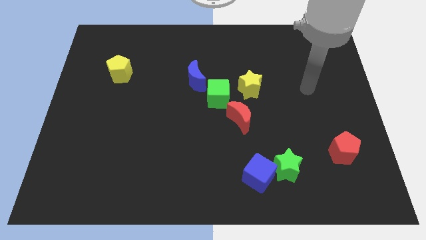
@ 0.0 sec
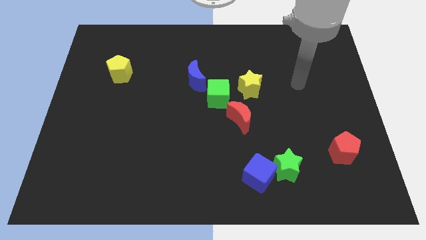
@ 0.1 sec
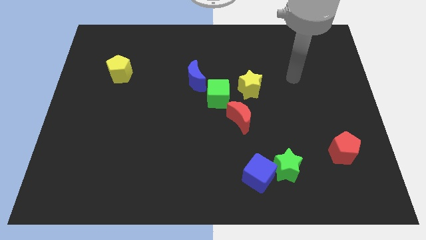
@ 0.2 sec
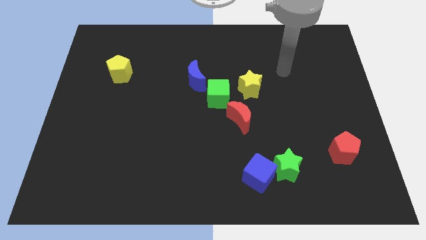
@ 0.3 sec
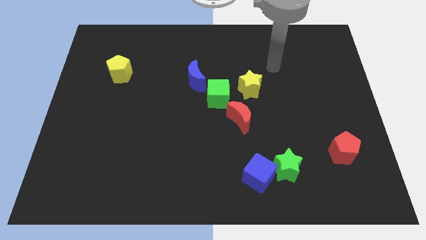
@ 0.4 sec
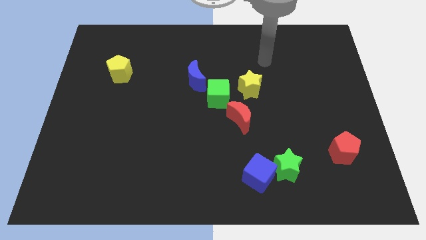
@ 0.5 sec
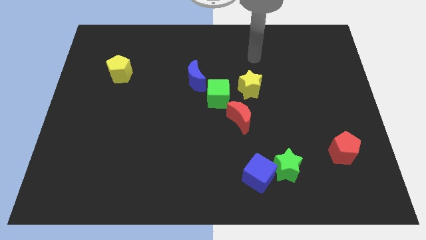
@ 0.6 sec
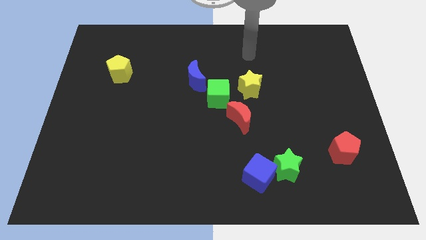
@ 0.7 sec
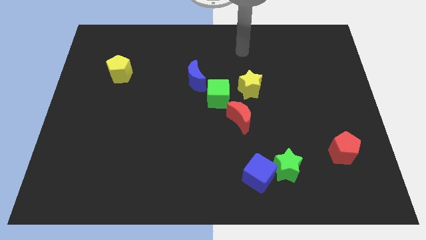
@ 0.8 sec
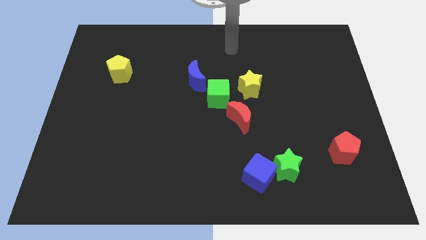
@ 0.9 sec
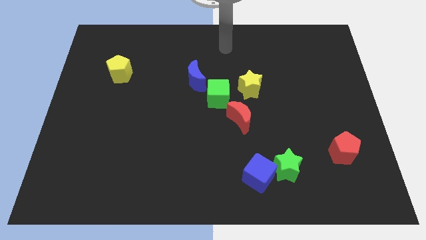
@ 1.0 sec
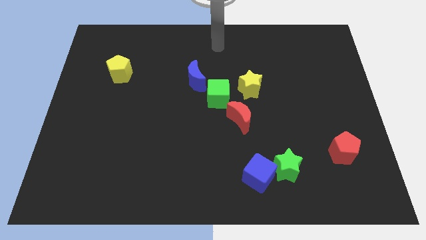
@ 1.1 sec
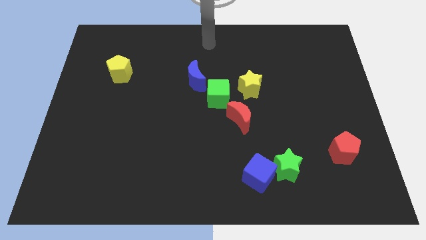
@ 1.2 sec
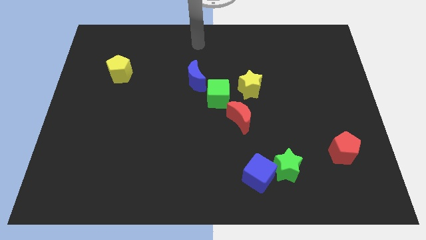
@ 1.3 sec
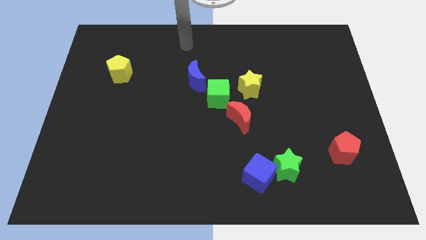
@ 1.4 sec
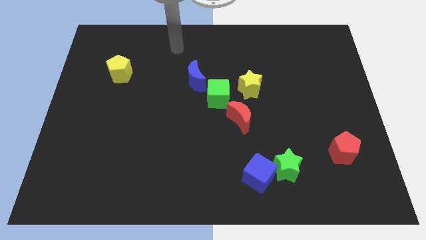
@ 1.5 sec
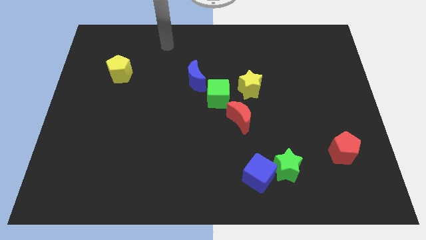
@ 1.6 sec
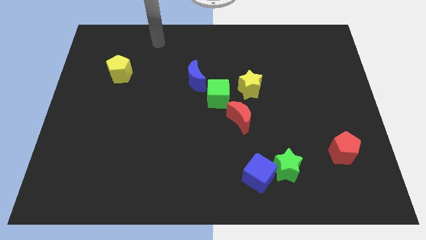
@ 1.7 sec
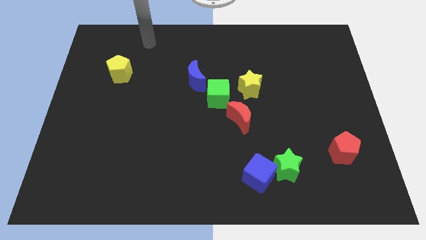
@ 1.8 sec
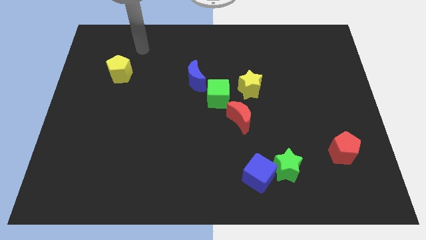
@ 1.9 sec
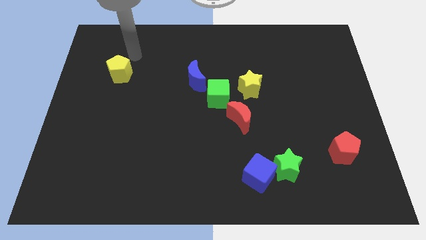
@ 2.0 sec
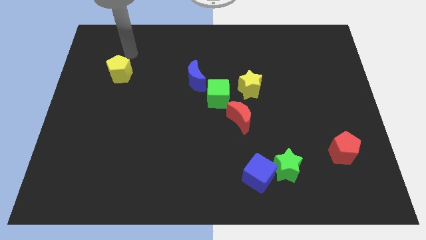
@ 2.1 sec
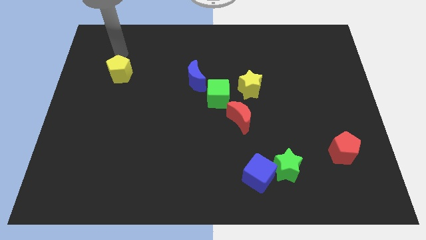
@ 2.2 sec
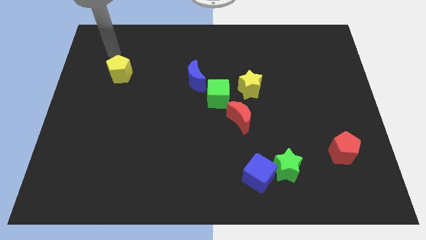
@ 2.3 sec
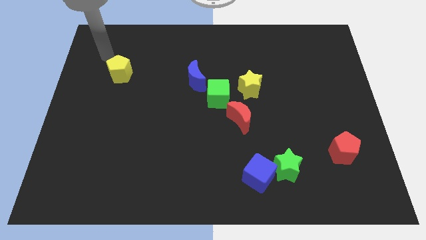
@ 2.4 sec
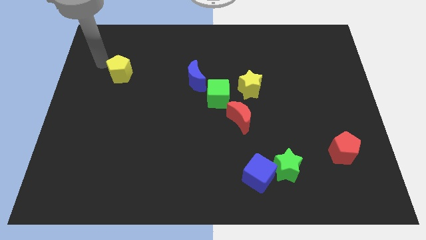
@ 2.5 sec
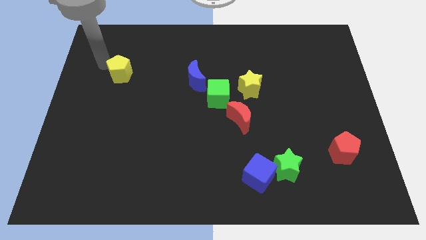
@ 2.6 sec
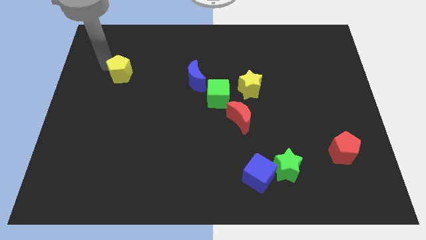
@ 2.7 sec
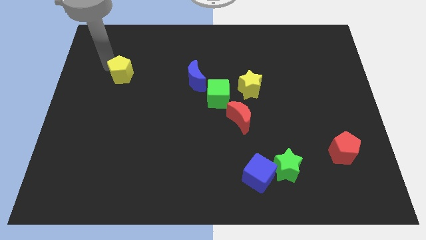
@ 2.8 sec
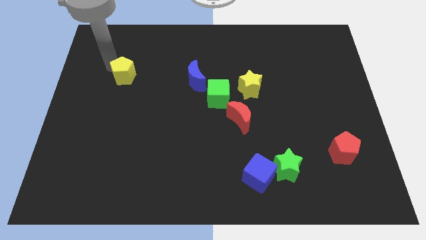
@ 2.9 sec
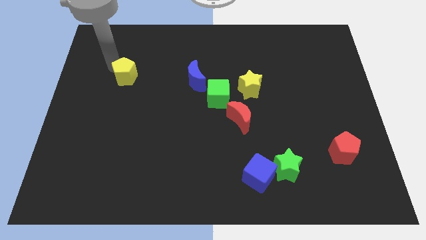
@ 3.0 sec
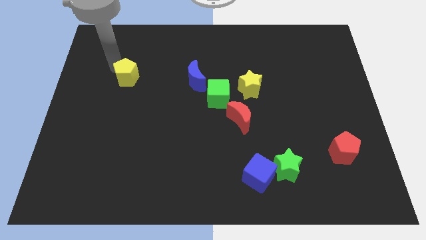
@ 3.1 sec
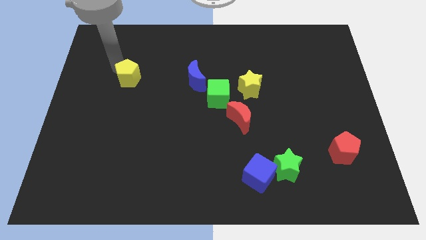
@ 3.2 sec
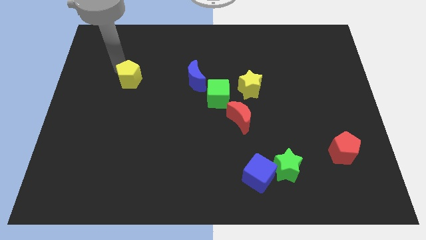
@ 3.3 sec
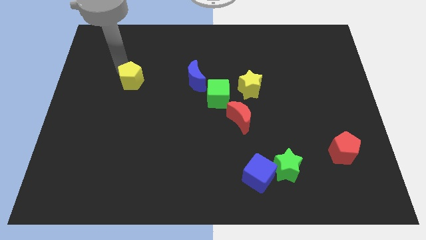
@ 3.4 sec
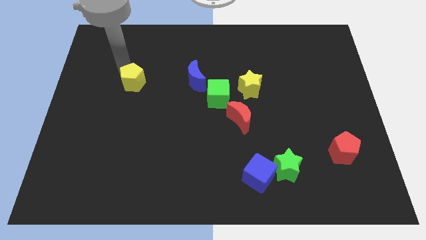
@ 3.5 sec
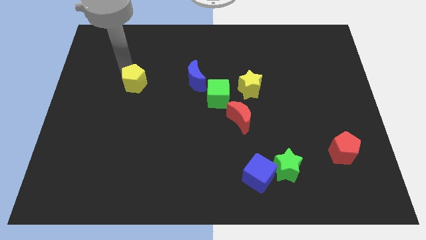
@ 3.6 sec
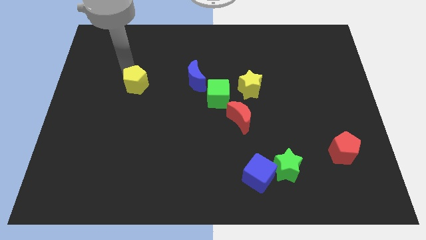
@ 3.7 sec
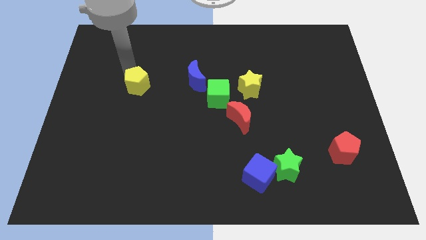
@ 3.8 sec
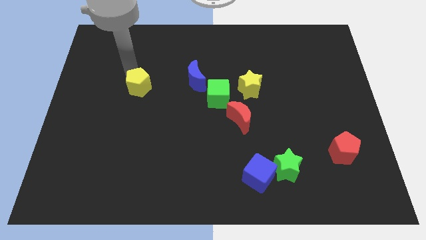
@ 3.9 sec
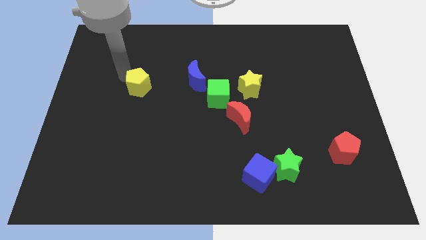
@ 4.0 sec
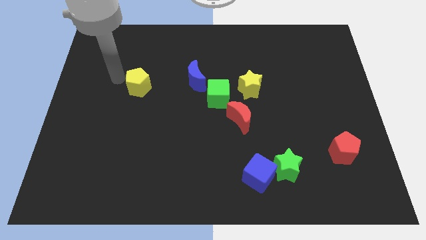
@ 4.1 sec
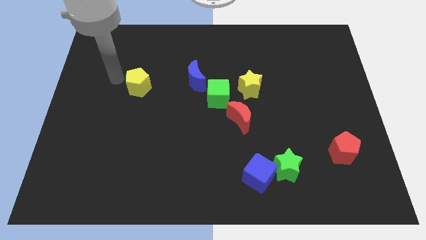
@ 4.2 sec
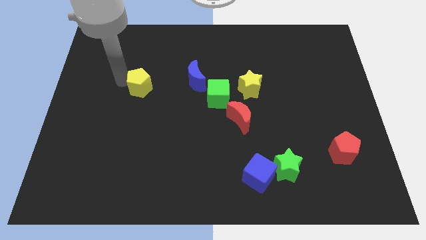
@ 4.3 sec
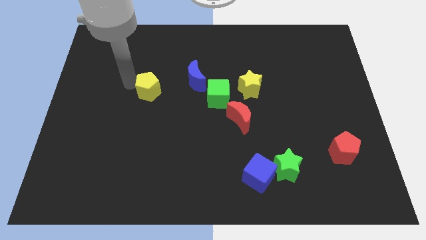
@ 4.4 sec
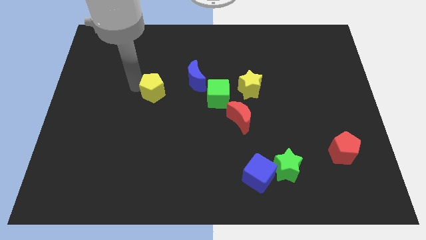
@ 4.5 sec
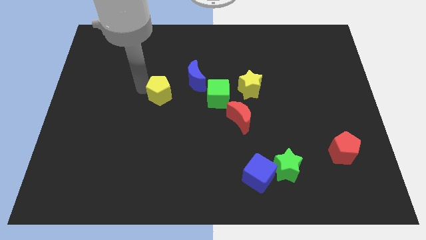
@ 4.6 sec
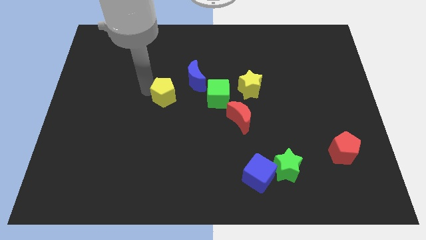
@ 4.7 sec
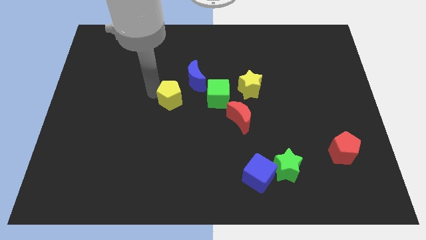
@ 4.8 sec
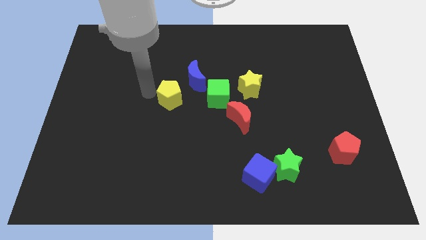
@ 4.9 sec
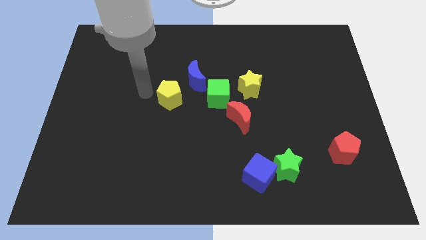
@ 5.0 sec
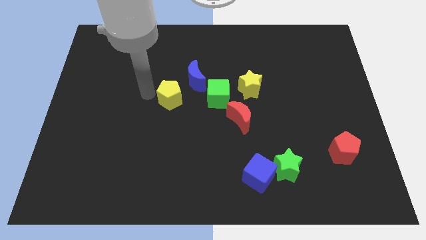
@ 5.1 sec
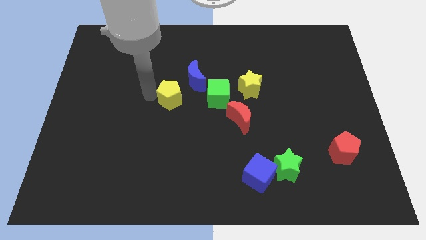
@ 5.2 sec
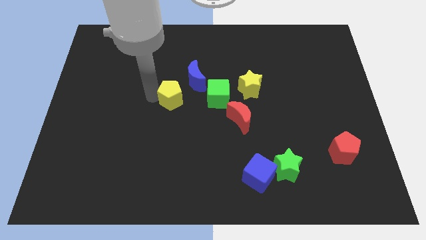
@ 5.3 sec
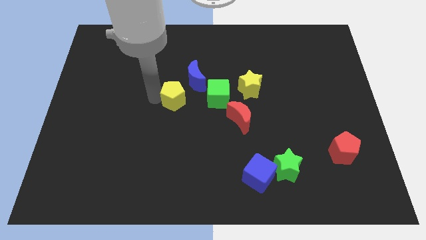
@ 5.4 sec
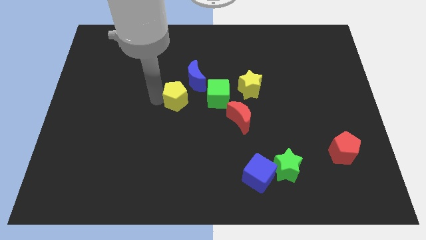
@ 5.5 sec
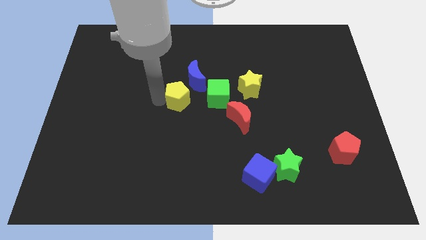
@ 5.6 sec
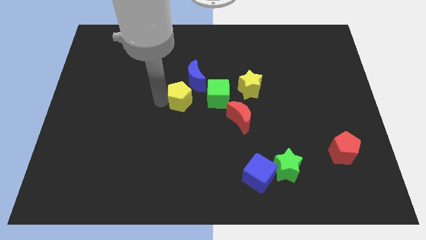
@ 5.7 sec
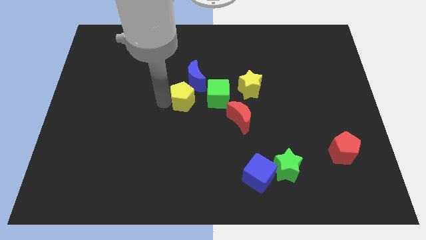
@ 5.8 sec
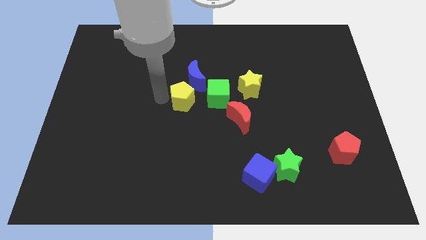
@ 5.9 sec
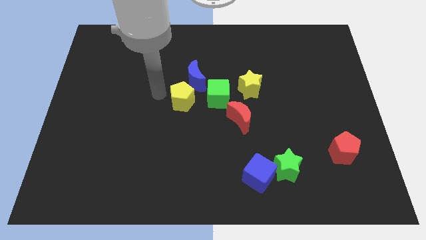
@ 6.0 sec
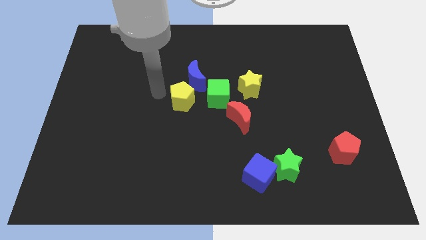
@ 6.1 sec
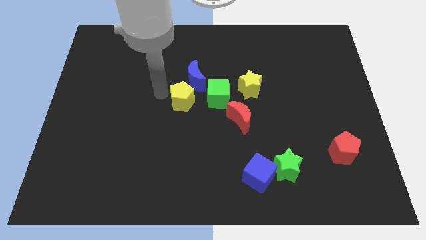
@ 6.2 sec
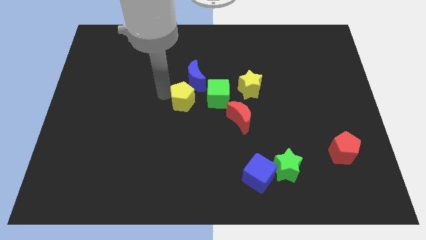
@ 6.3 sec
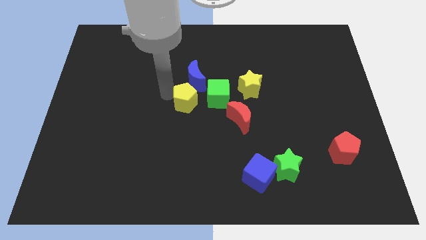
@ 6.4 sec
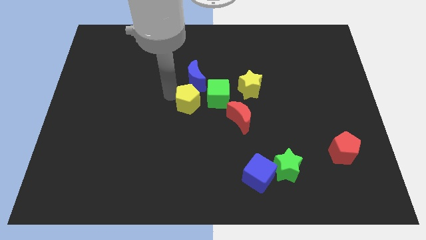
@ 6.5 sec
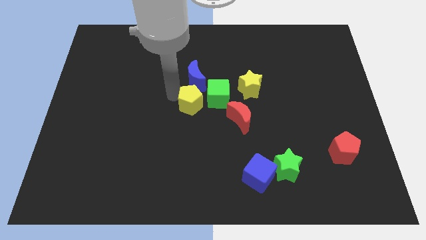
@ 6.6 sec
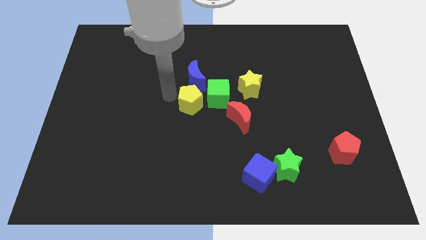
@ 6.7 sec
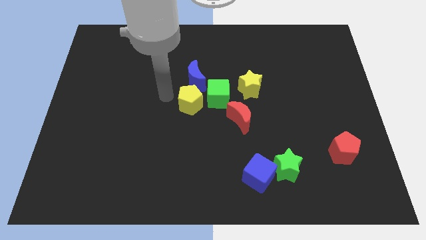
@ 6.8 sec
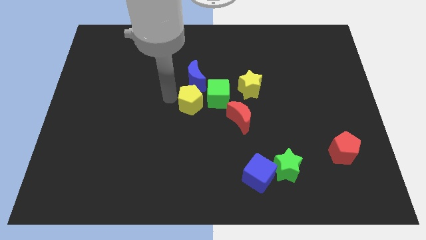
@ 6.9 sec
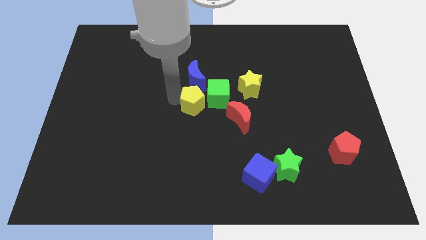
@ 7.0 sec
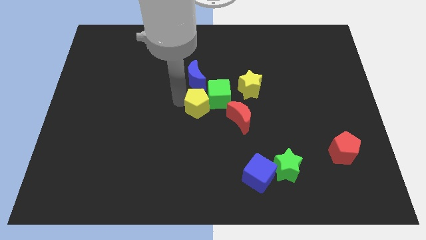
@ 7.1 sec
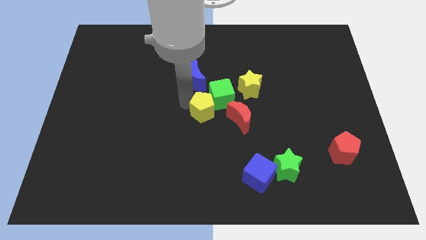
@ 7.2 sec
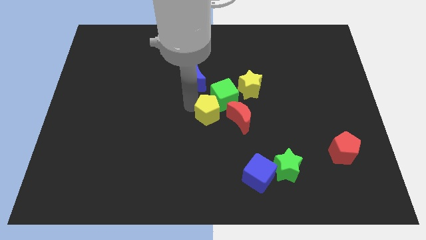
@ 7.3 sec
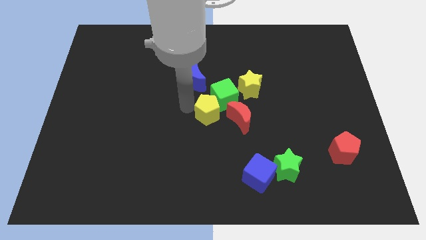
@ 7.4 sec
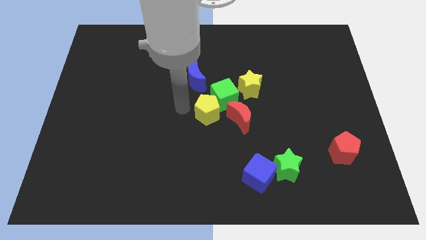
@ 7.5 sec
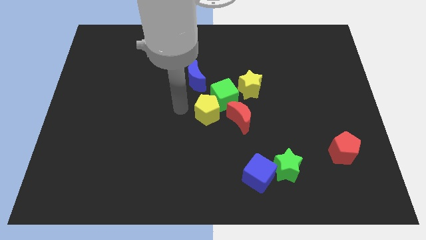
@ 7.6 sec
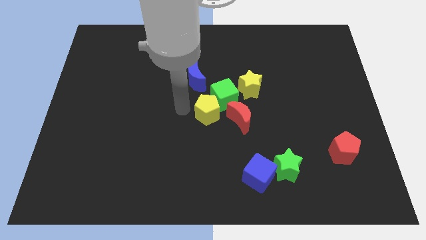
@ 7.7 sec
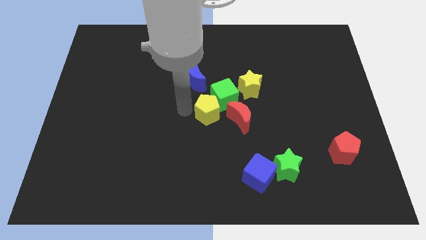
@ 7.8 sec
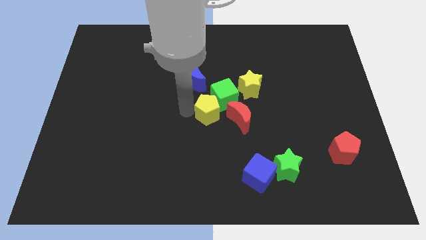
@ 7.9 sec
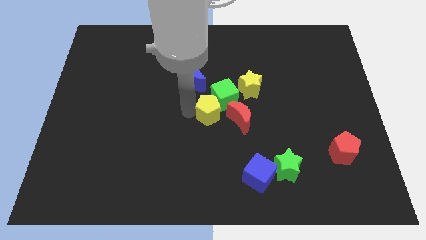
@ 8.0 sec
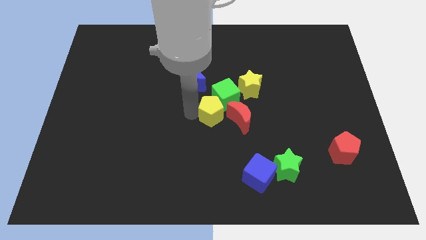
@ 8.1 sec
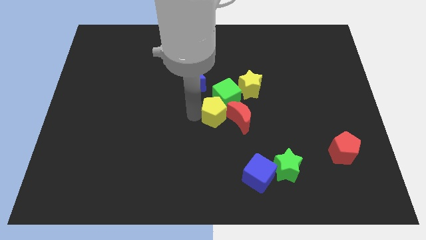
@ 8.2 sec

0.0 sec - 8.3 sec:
push the yellow pentagon close to the red moon
